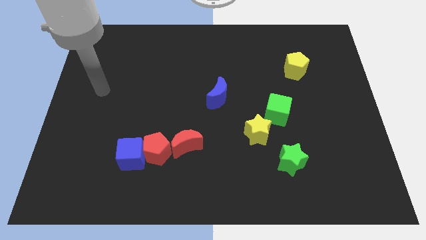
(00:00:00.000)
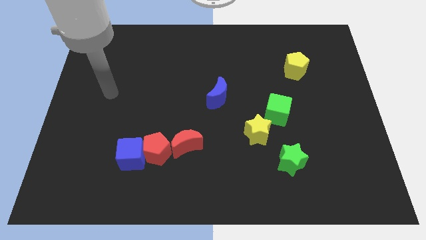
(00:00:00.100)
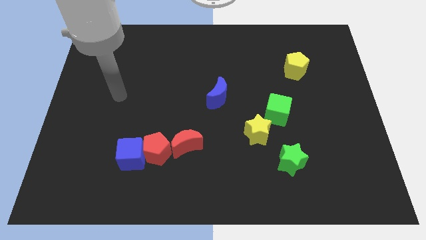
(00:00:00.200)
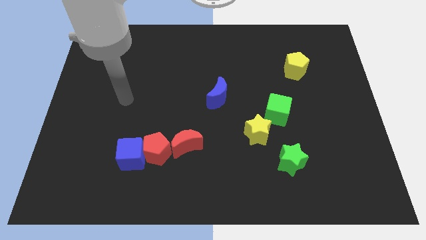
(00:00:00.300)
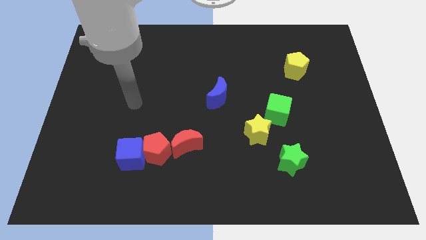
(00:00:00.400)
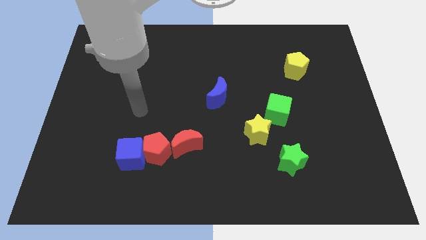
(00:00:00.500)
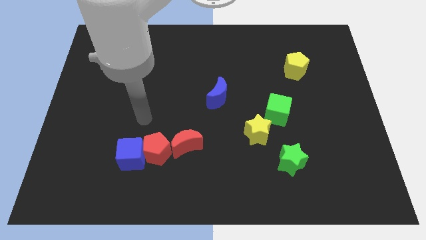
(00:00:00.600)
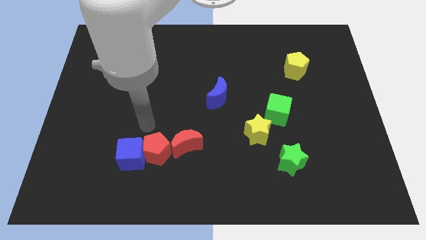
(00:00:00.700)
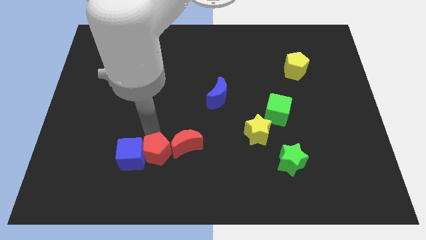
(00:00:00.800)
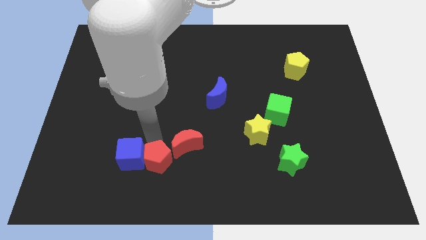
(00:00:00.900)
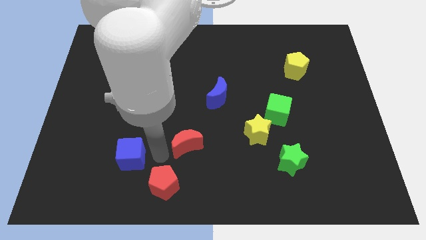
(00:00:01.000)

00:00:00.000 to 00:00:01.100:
pull the blue cube apart from the red pentagon

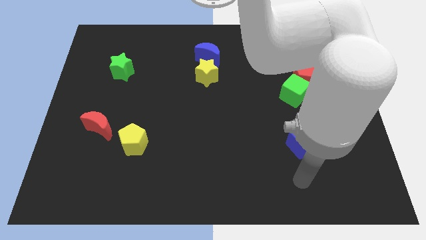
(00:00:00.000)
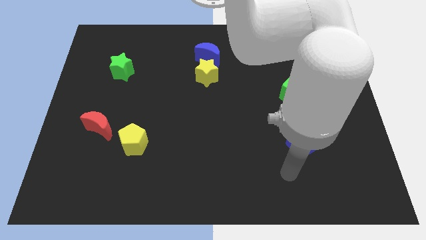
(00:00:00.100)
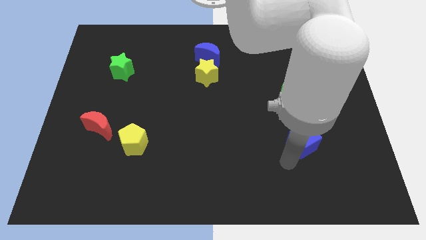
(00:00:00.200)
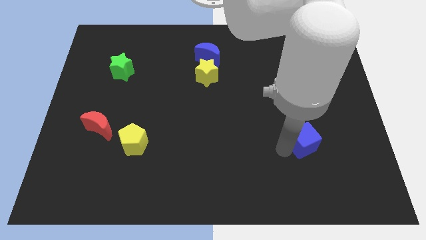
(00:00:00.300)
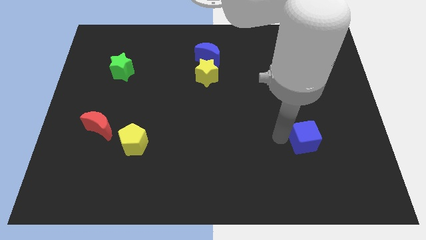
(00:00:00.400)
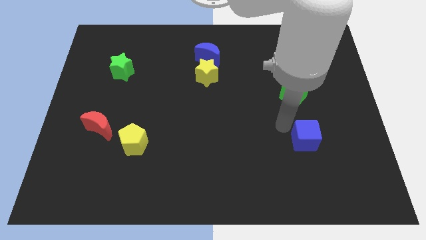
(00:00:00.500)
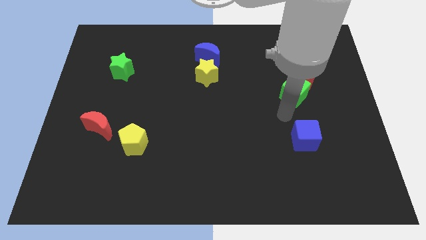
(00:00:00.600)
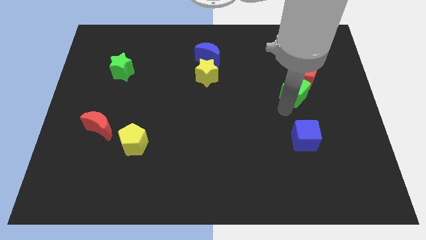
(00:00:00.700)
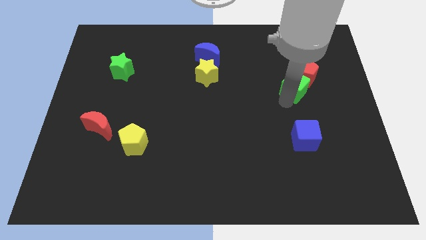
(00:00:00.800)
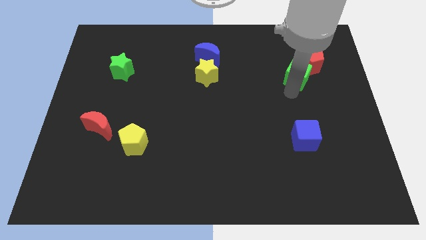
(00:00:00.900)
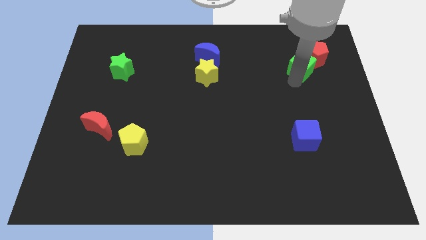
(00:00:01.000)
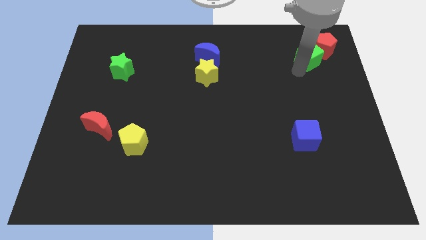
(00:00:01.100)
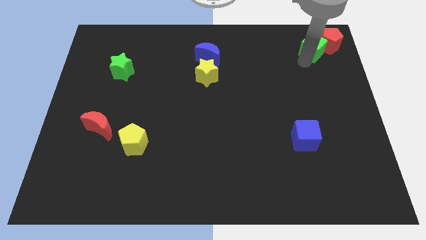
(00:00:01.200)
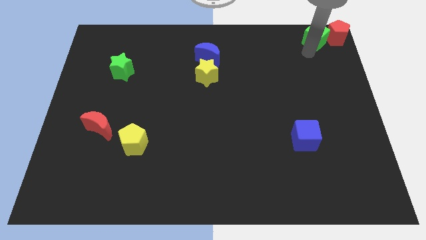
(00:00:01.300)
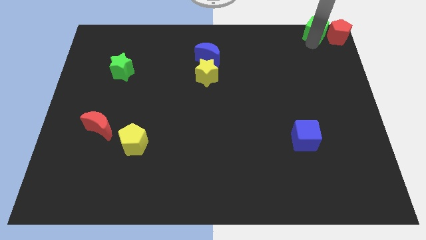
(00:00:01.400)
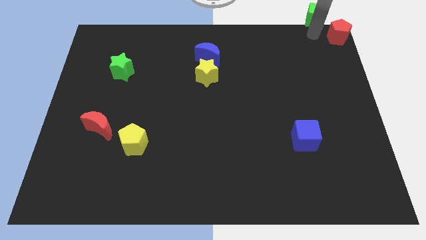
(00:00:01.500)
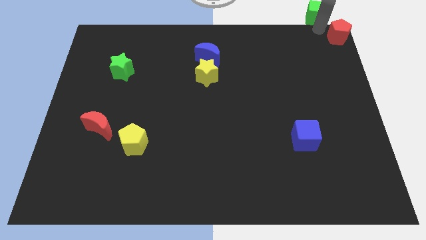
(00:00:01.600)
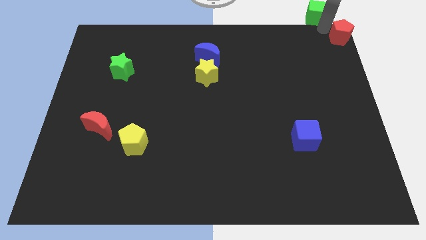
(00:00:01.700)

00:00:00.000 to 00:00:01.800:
pull the red pentagon apart from the green cube

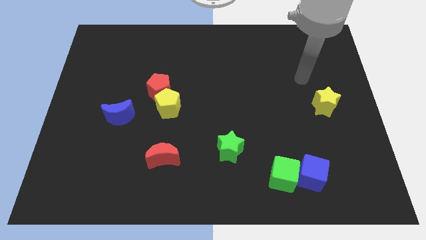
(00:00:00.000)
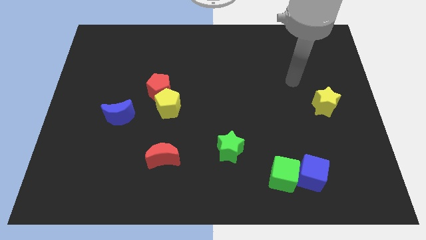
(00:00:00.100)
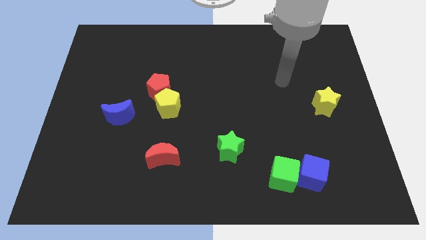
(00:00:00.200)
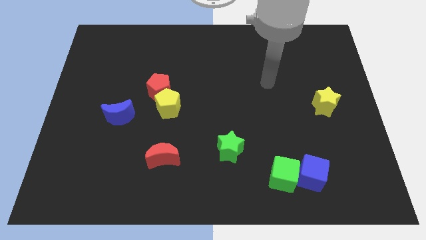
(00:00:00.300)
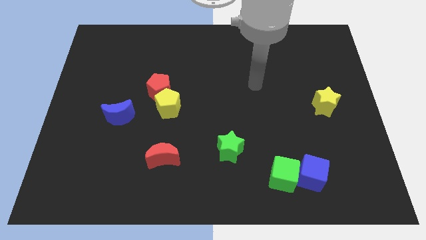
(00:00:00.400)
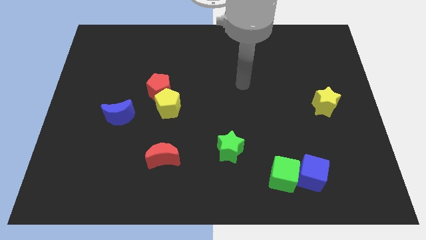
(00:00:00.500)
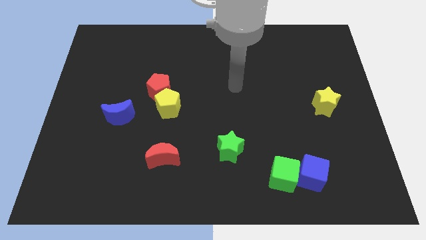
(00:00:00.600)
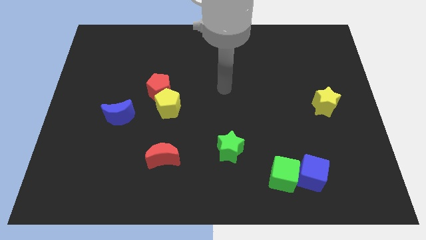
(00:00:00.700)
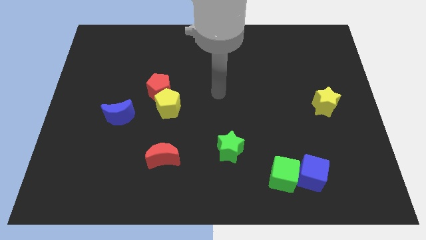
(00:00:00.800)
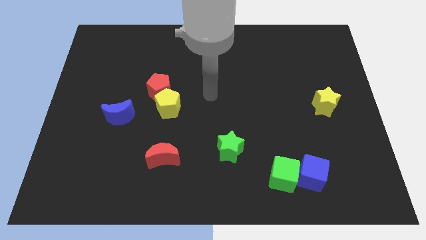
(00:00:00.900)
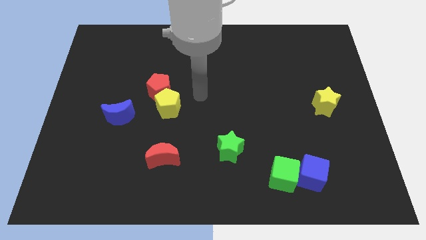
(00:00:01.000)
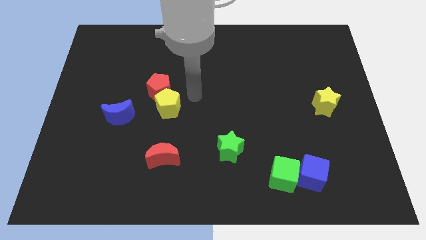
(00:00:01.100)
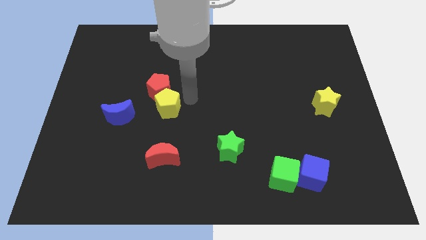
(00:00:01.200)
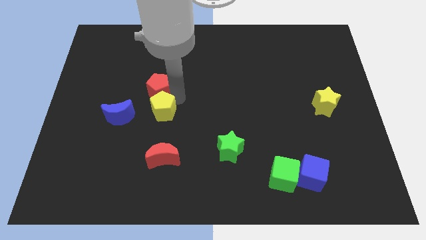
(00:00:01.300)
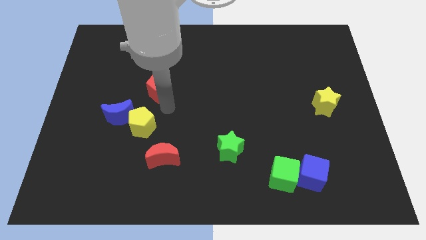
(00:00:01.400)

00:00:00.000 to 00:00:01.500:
pull the red pentagon apart from the yellow pentagon

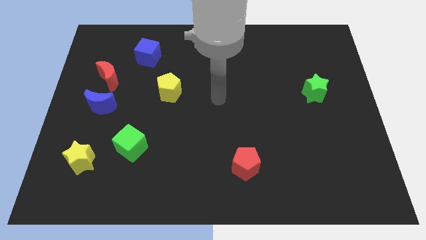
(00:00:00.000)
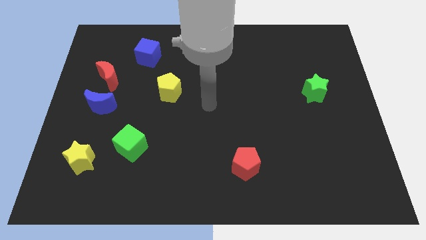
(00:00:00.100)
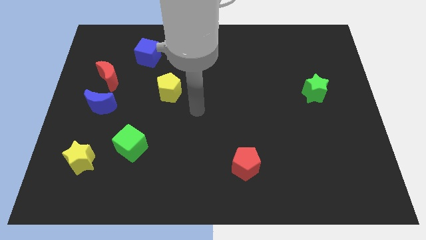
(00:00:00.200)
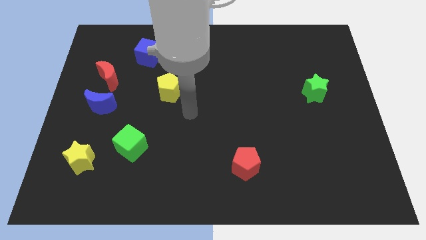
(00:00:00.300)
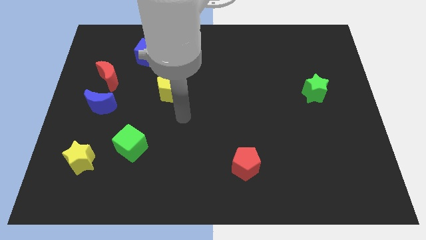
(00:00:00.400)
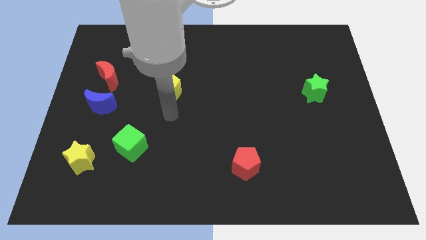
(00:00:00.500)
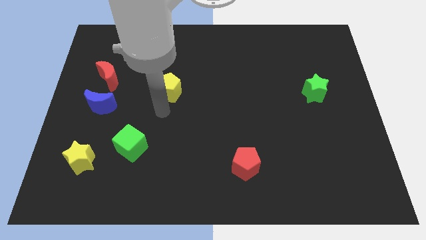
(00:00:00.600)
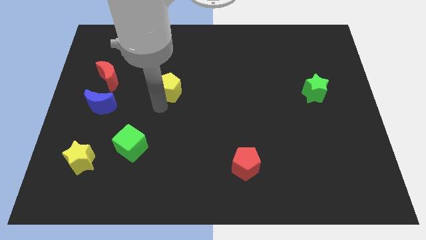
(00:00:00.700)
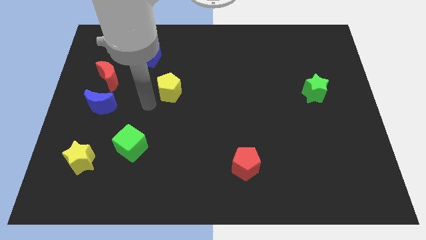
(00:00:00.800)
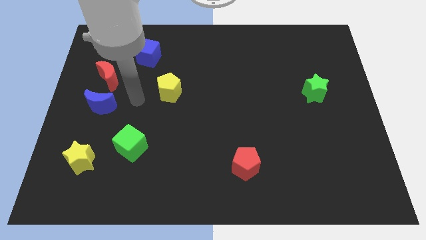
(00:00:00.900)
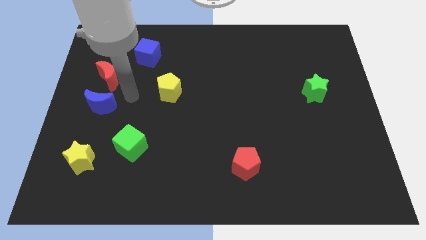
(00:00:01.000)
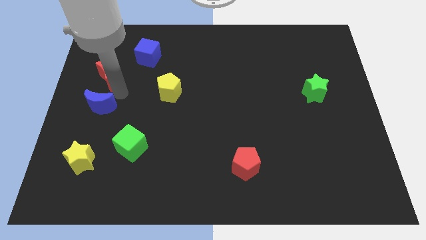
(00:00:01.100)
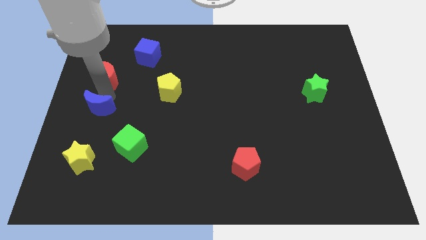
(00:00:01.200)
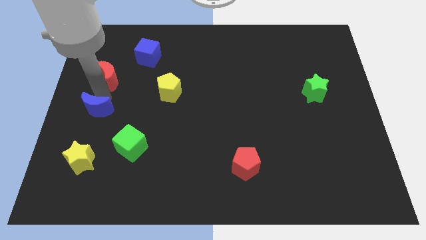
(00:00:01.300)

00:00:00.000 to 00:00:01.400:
pull the red moon apart from the blue moon

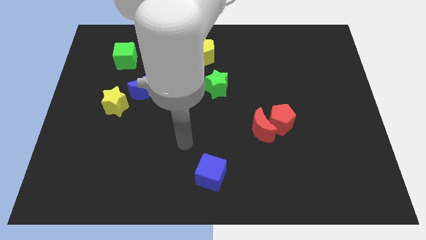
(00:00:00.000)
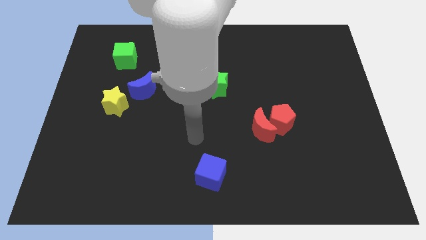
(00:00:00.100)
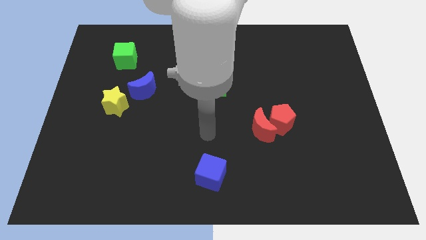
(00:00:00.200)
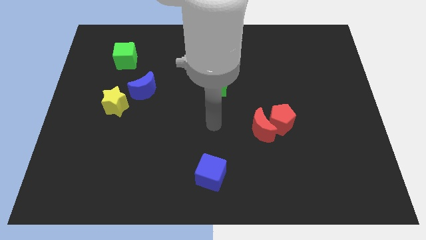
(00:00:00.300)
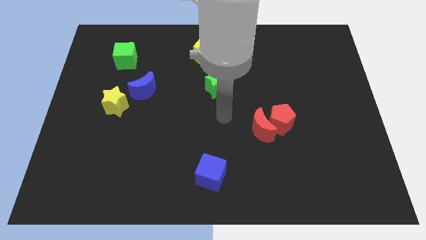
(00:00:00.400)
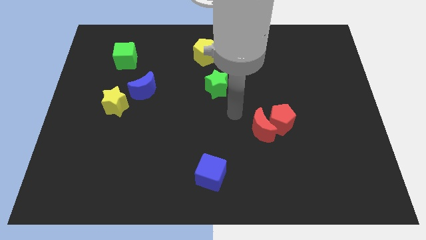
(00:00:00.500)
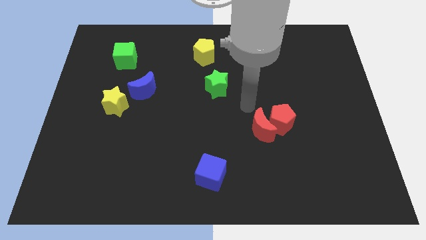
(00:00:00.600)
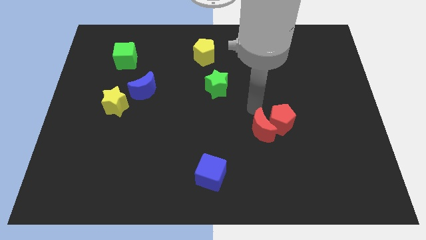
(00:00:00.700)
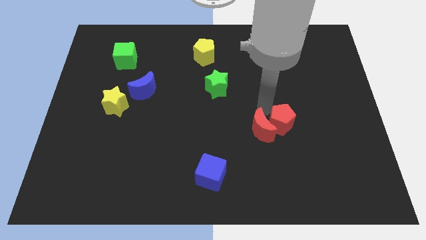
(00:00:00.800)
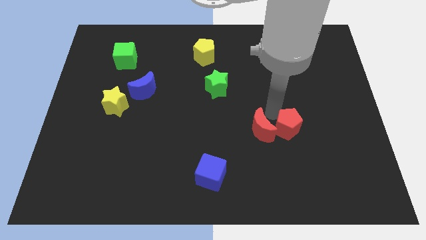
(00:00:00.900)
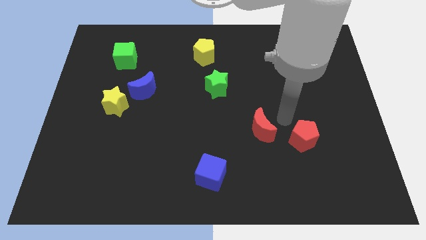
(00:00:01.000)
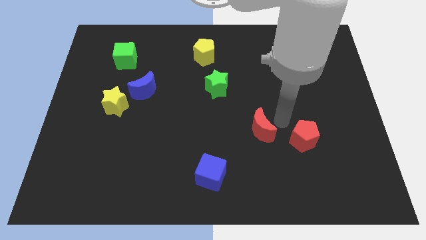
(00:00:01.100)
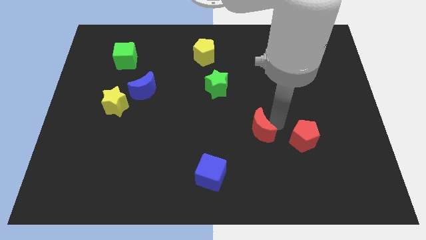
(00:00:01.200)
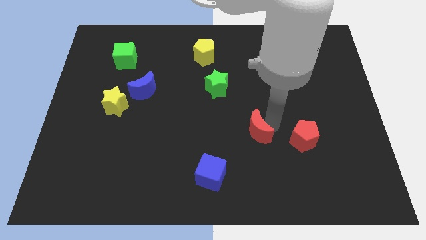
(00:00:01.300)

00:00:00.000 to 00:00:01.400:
separate the red moon from the red pentagon

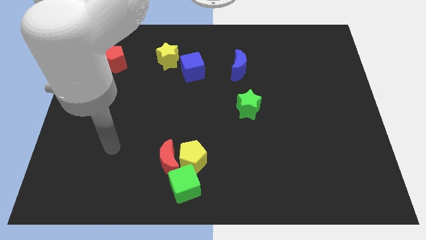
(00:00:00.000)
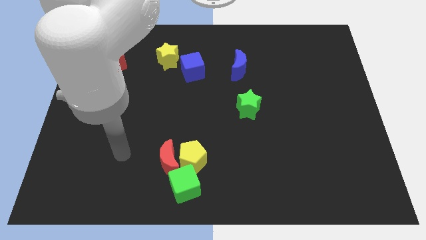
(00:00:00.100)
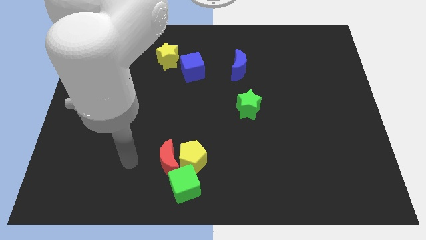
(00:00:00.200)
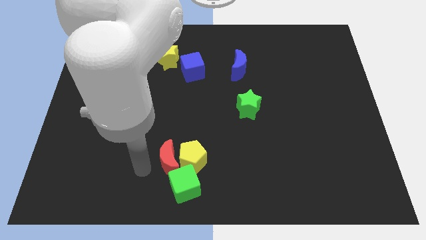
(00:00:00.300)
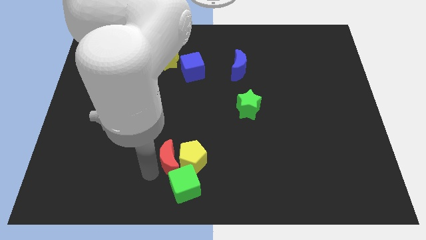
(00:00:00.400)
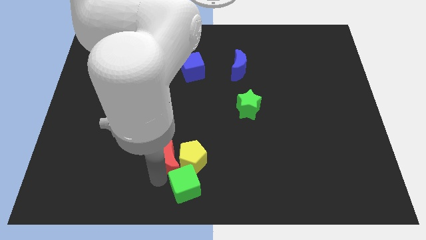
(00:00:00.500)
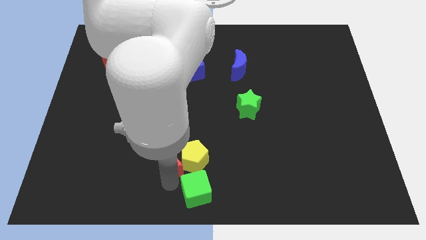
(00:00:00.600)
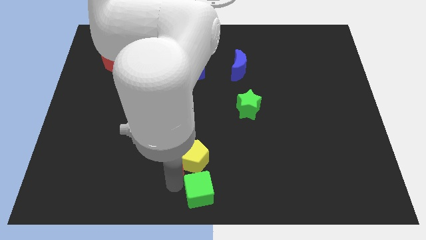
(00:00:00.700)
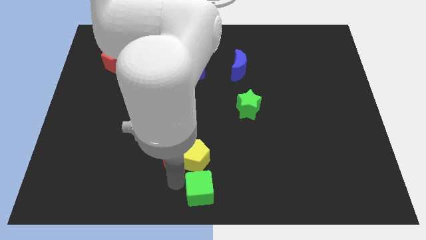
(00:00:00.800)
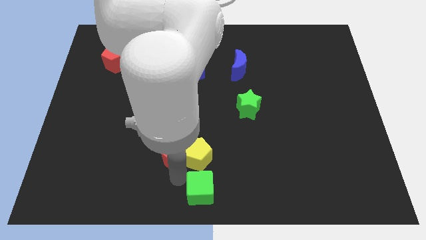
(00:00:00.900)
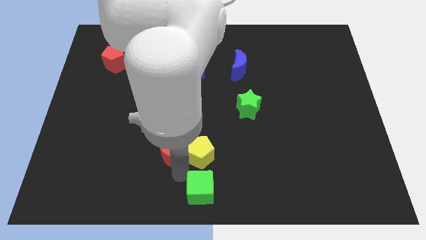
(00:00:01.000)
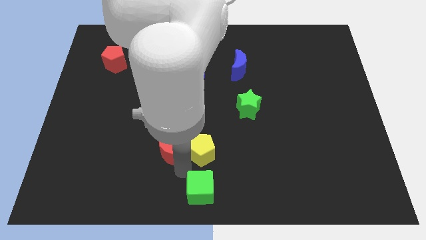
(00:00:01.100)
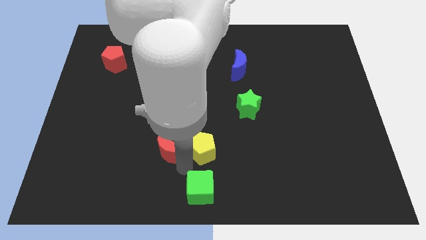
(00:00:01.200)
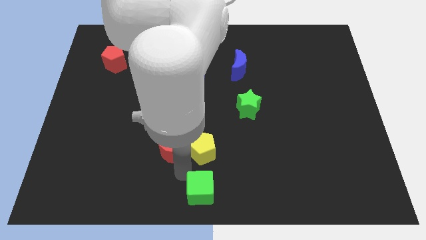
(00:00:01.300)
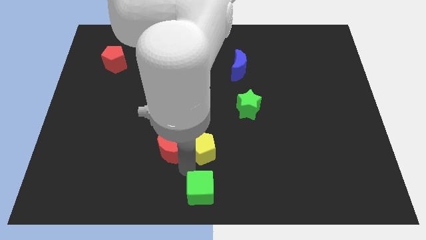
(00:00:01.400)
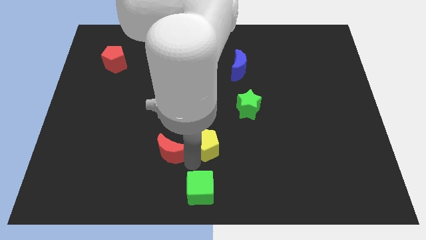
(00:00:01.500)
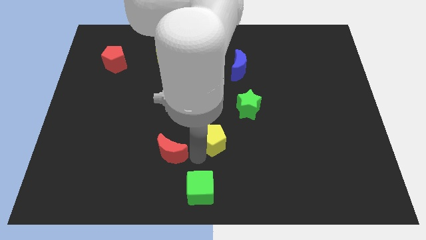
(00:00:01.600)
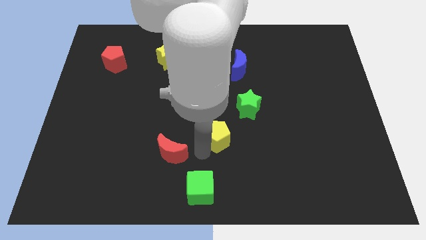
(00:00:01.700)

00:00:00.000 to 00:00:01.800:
move the yellow pentagon away from the red moon and green cube

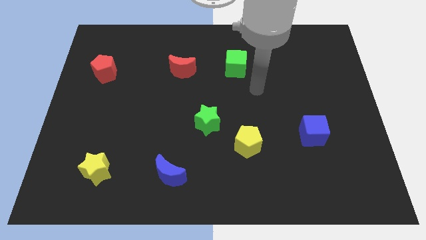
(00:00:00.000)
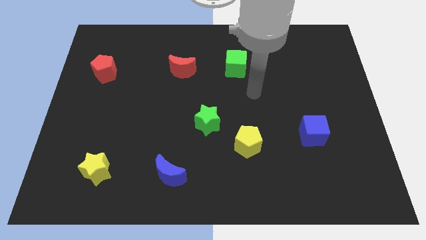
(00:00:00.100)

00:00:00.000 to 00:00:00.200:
pull the green star apart from the yellow pentagon
